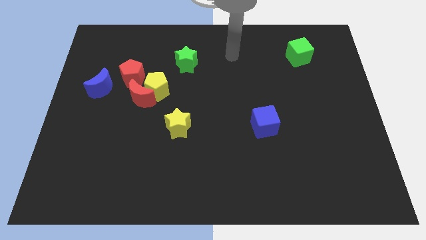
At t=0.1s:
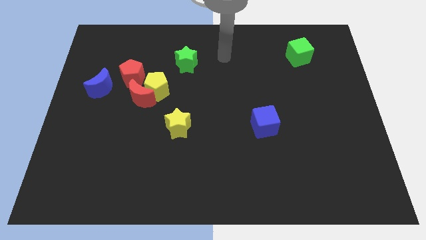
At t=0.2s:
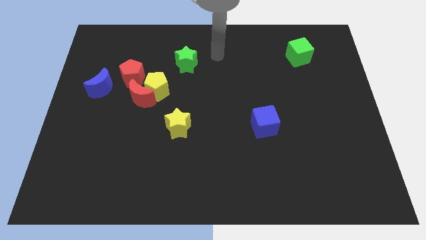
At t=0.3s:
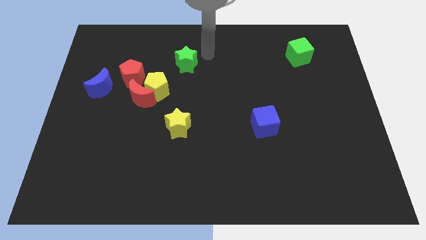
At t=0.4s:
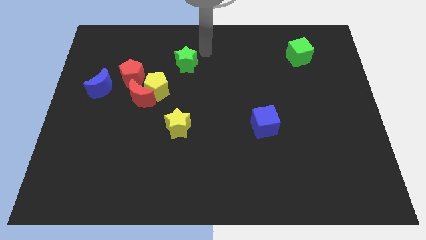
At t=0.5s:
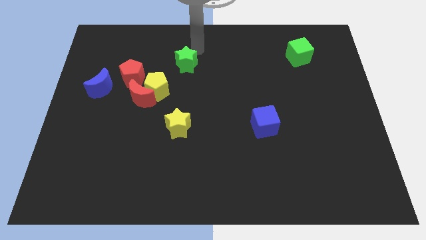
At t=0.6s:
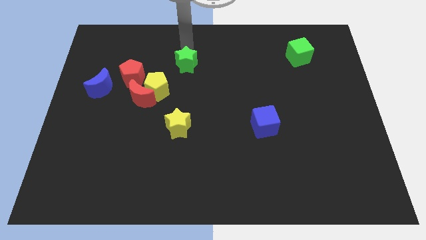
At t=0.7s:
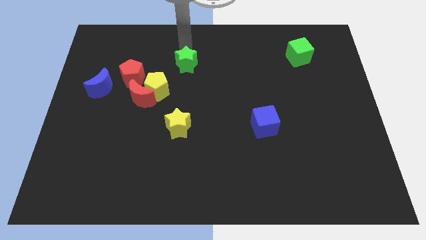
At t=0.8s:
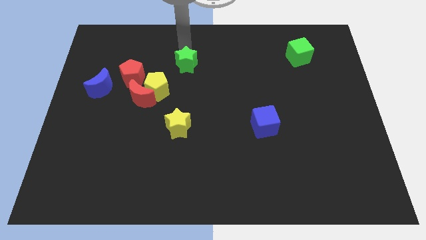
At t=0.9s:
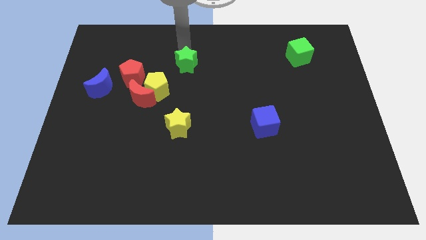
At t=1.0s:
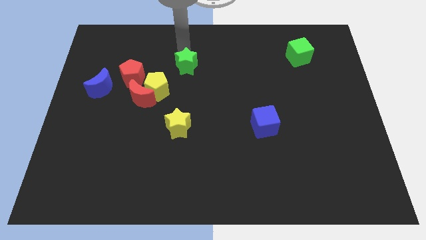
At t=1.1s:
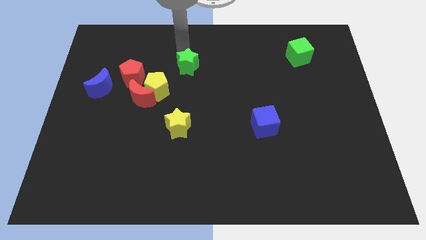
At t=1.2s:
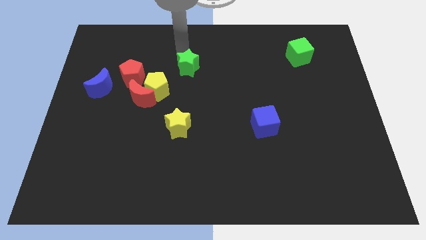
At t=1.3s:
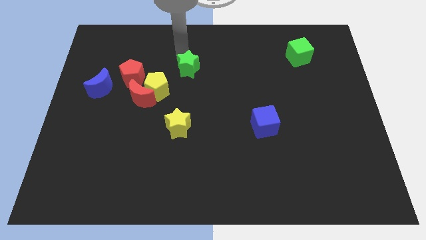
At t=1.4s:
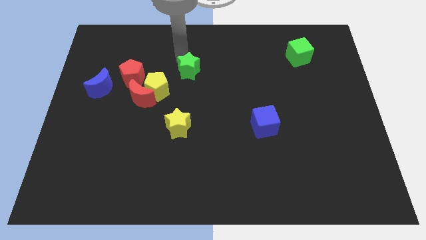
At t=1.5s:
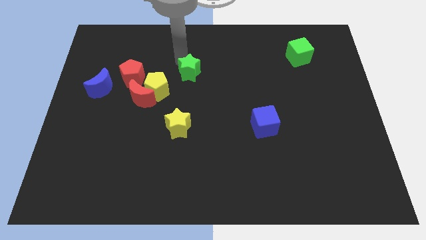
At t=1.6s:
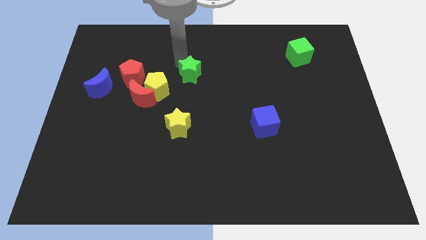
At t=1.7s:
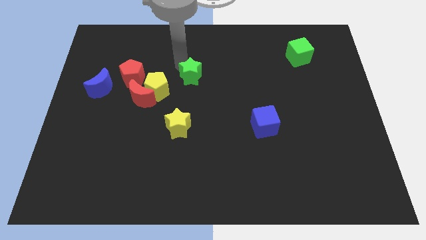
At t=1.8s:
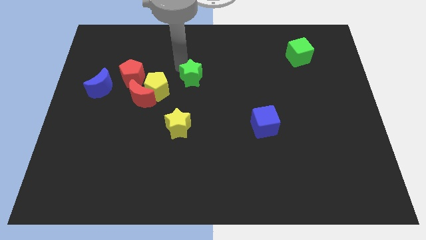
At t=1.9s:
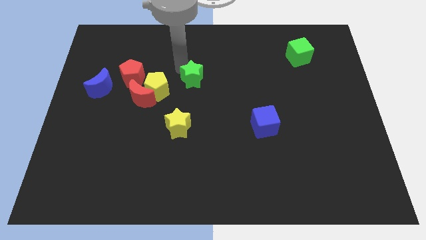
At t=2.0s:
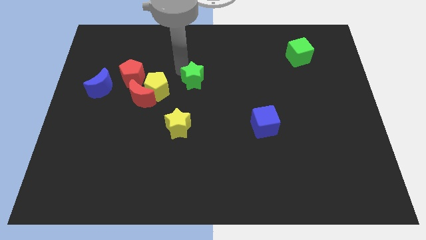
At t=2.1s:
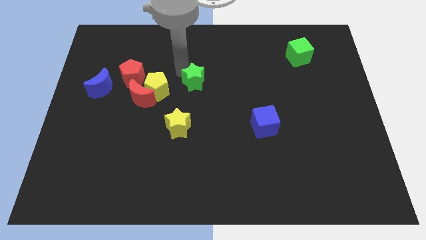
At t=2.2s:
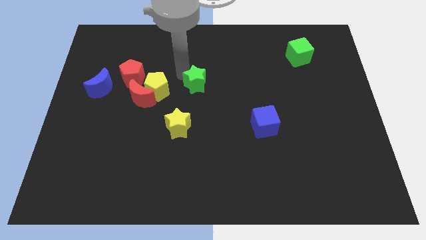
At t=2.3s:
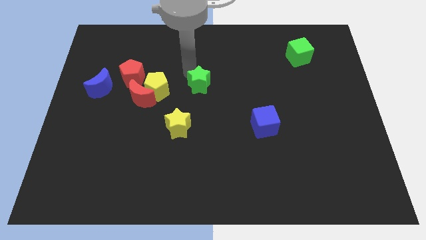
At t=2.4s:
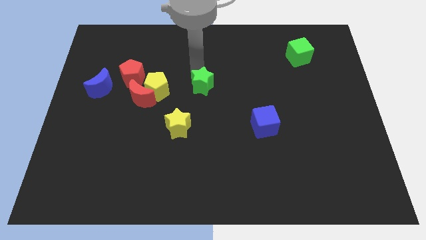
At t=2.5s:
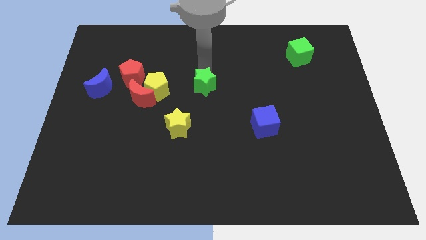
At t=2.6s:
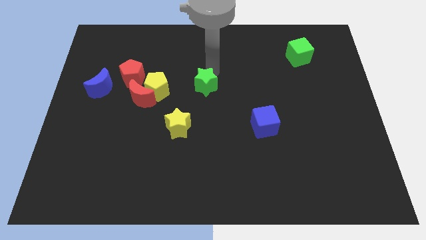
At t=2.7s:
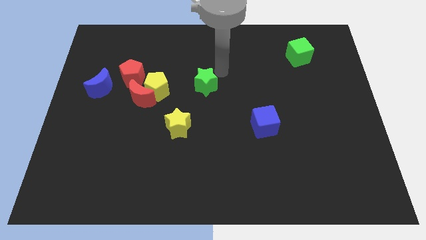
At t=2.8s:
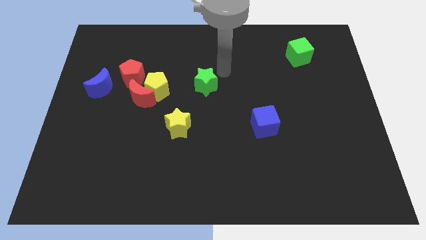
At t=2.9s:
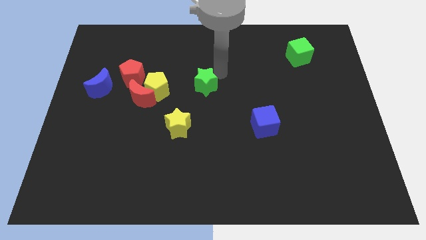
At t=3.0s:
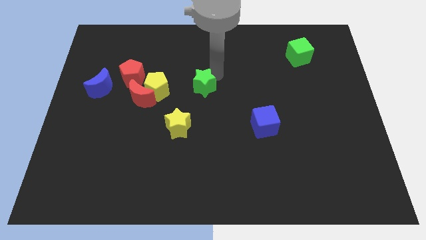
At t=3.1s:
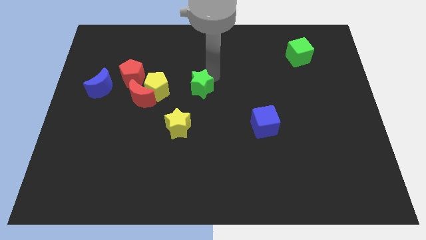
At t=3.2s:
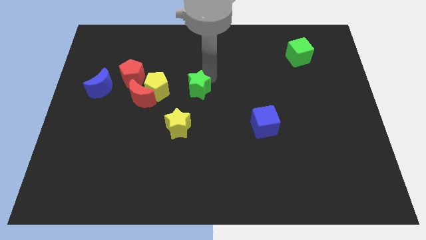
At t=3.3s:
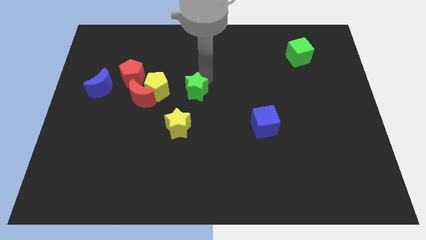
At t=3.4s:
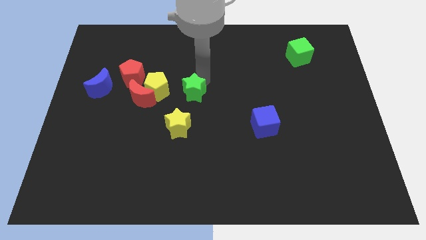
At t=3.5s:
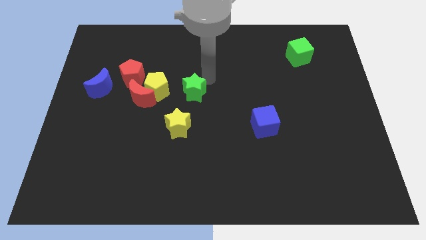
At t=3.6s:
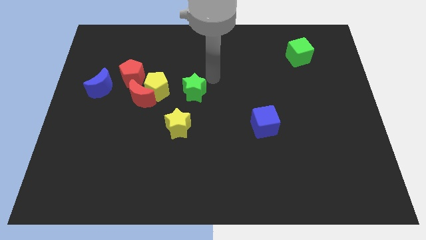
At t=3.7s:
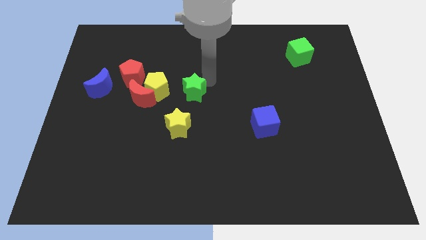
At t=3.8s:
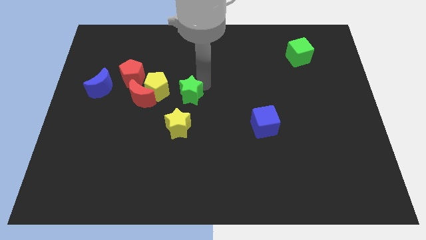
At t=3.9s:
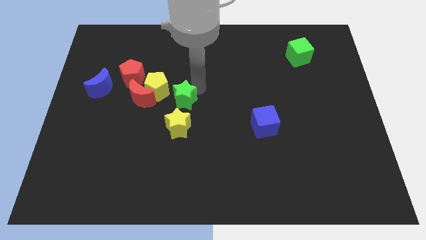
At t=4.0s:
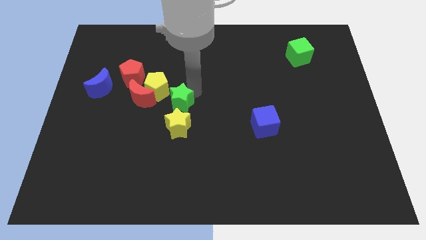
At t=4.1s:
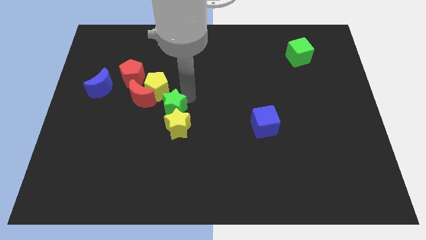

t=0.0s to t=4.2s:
slightly slide the green star down and then to the left

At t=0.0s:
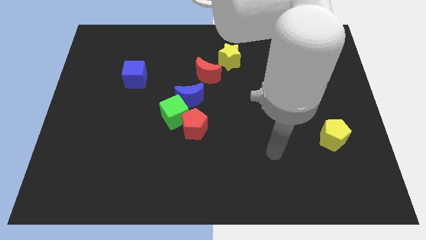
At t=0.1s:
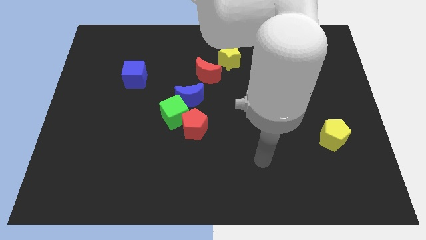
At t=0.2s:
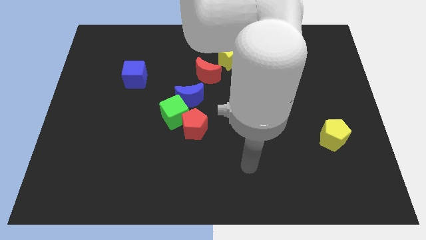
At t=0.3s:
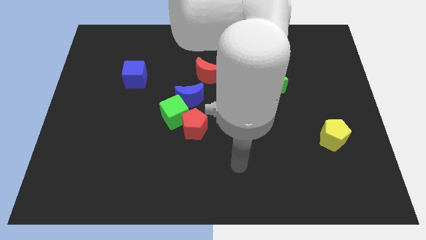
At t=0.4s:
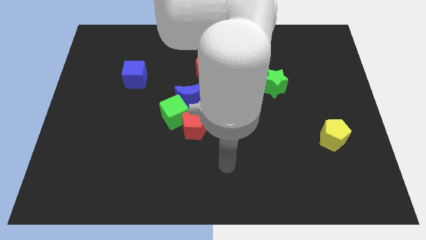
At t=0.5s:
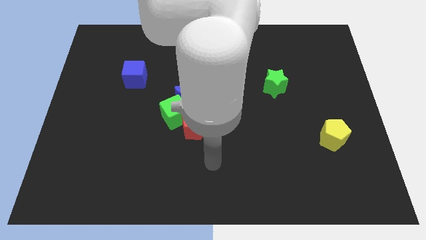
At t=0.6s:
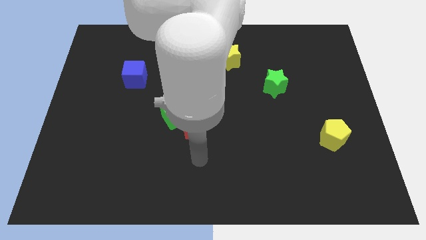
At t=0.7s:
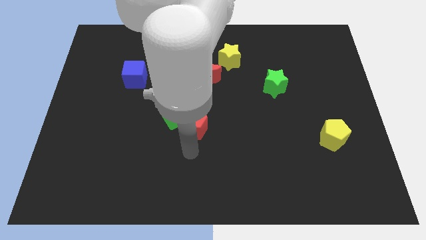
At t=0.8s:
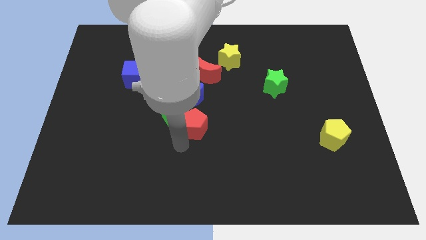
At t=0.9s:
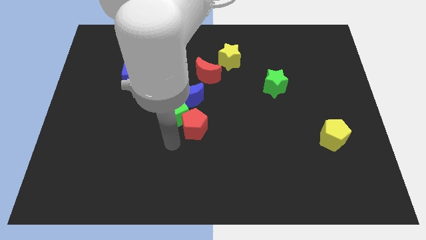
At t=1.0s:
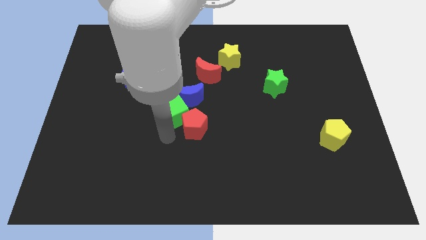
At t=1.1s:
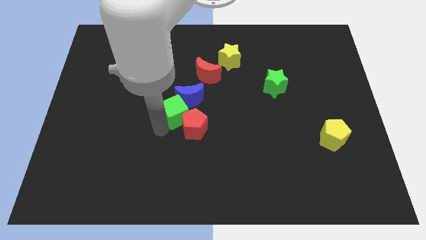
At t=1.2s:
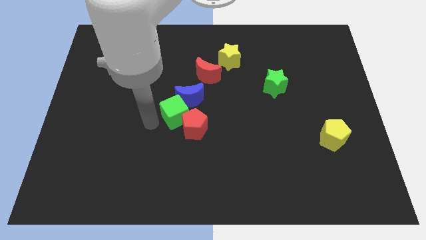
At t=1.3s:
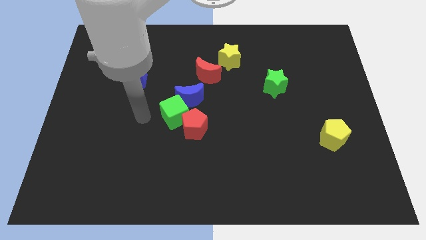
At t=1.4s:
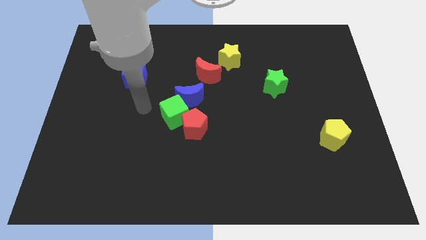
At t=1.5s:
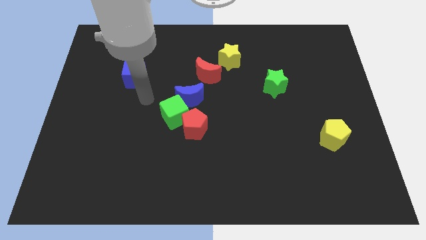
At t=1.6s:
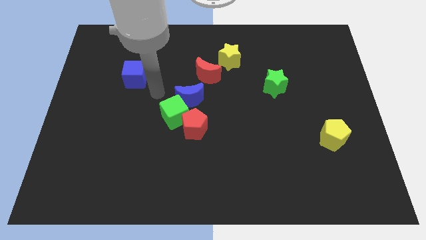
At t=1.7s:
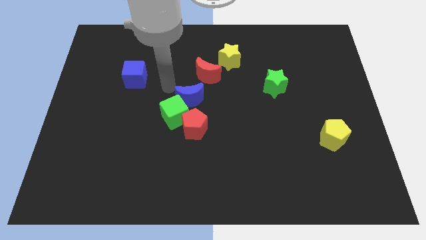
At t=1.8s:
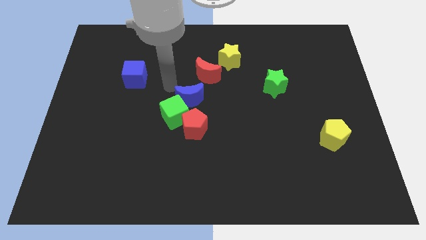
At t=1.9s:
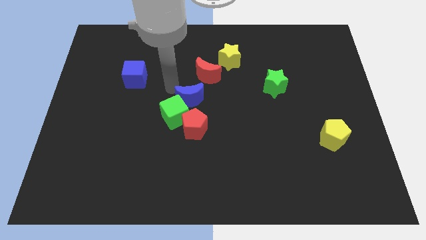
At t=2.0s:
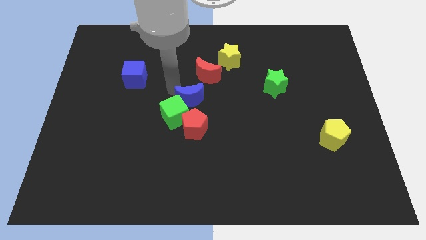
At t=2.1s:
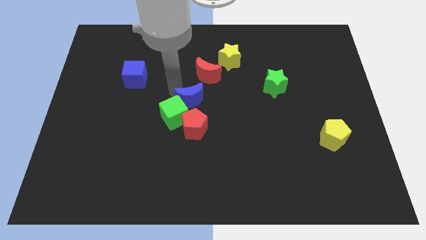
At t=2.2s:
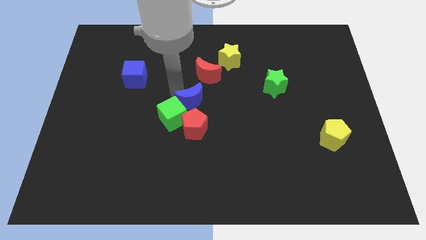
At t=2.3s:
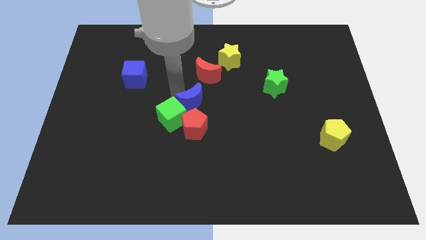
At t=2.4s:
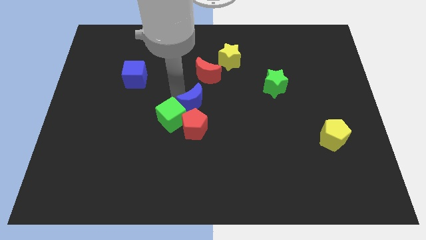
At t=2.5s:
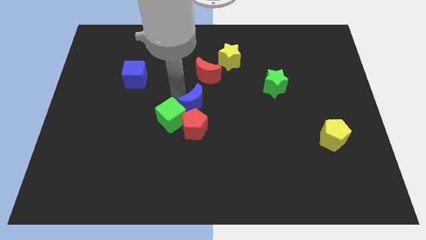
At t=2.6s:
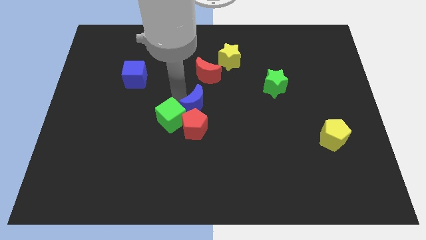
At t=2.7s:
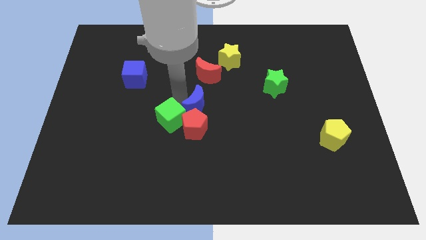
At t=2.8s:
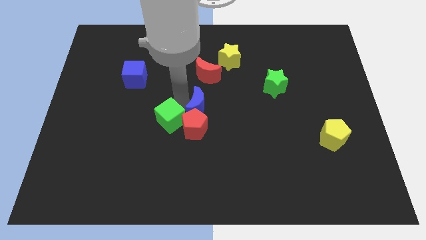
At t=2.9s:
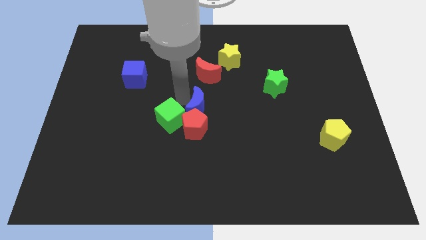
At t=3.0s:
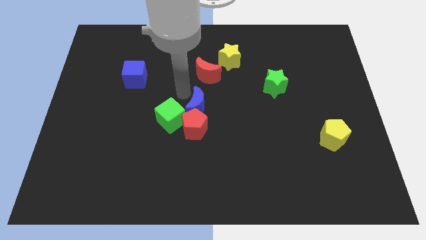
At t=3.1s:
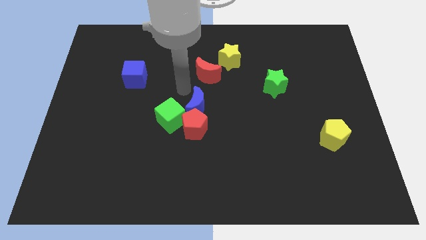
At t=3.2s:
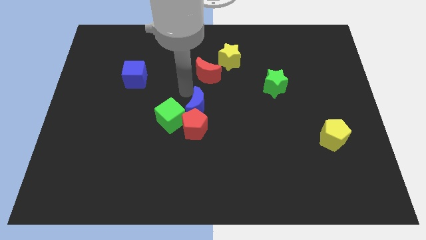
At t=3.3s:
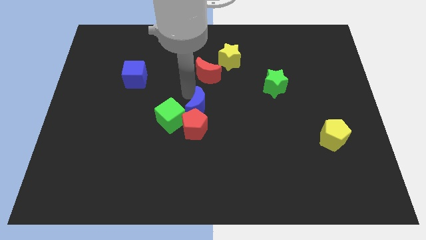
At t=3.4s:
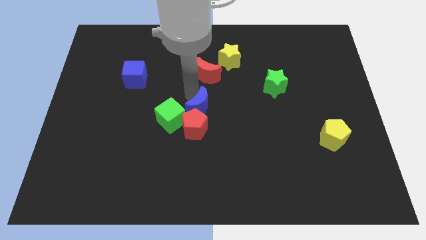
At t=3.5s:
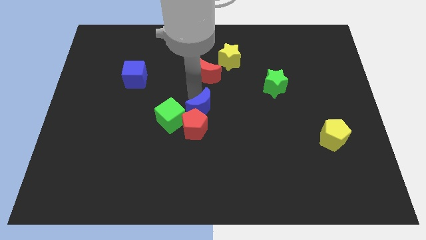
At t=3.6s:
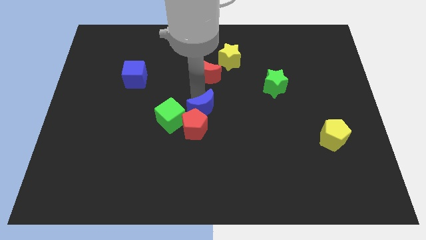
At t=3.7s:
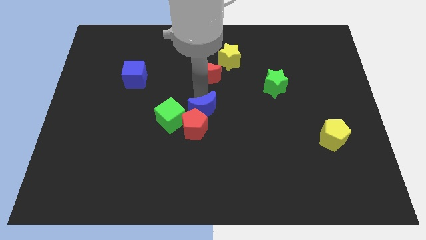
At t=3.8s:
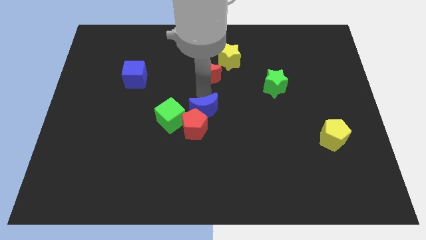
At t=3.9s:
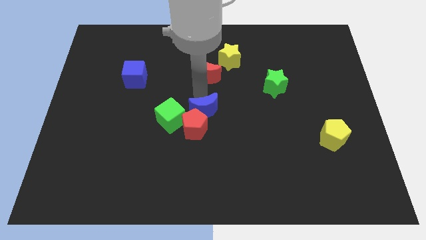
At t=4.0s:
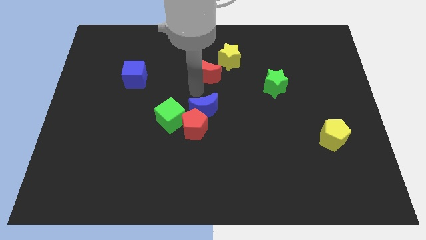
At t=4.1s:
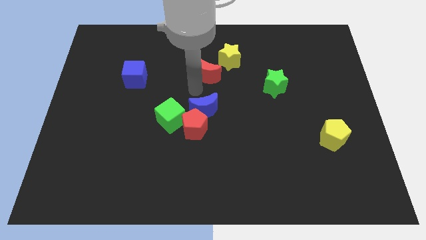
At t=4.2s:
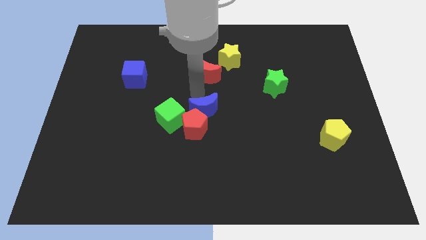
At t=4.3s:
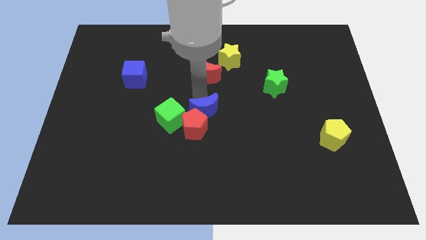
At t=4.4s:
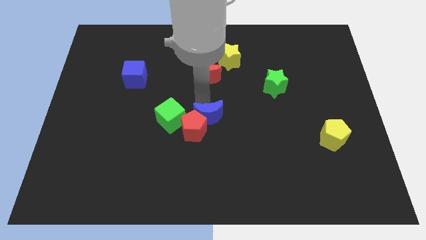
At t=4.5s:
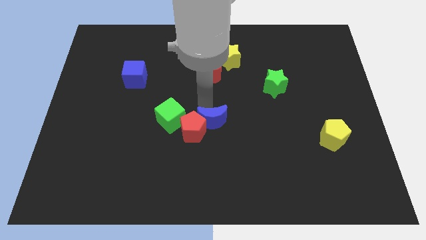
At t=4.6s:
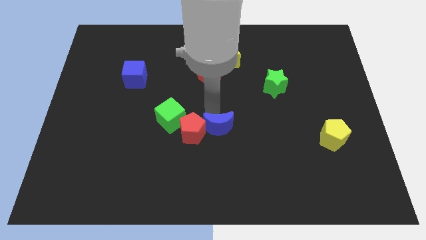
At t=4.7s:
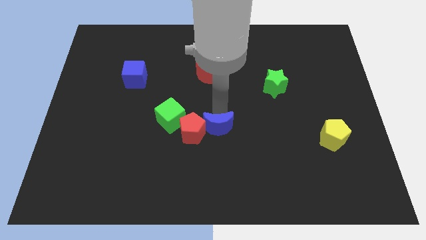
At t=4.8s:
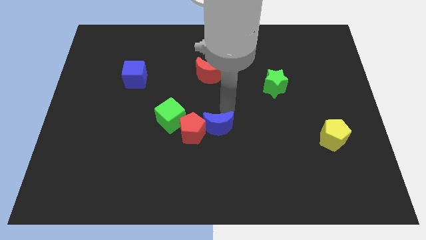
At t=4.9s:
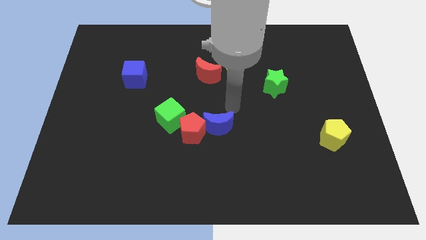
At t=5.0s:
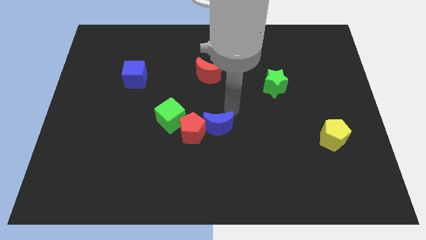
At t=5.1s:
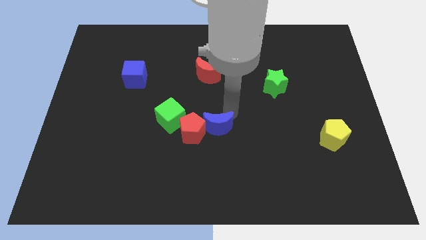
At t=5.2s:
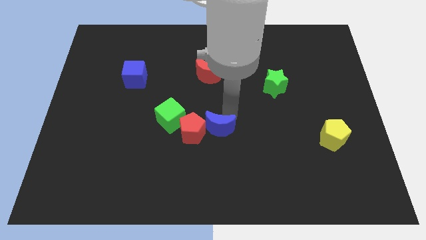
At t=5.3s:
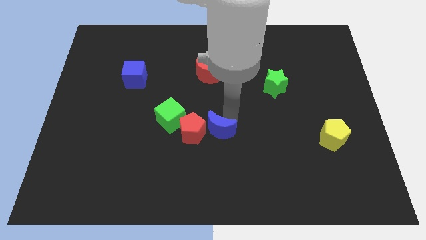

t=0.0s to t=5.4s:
push the blue moon slightly downwards
